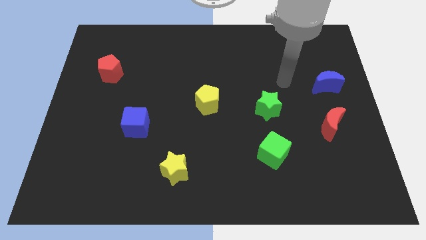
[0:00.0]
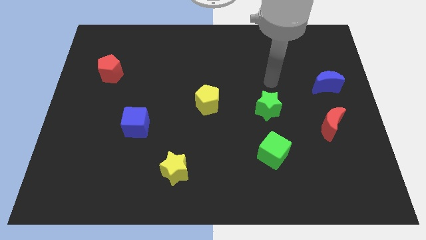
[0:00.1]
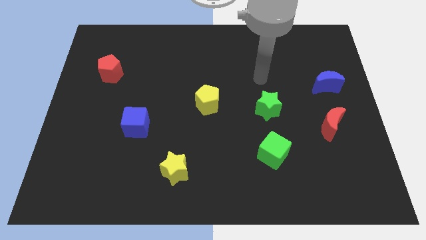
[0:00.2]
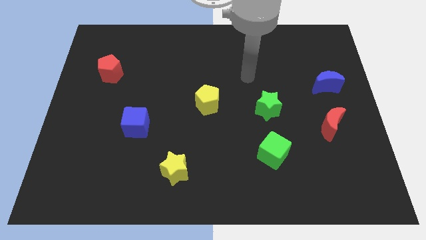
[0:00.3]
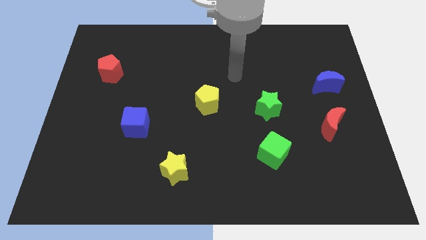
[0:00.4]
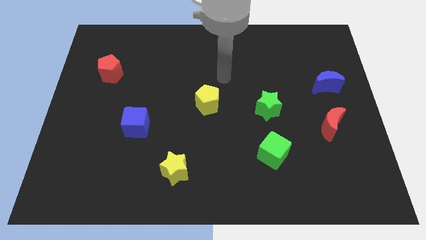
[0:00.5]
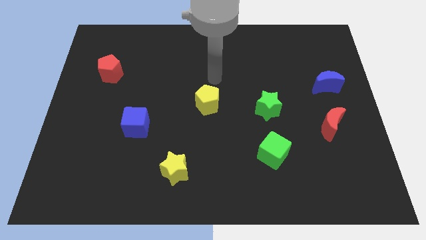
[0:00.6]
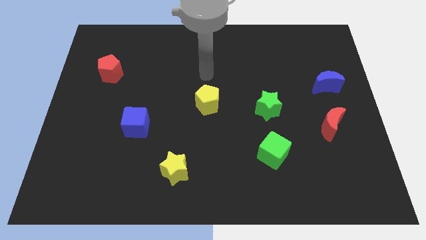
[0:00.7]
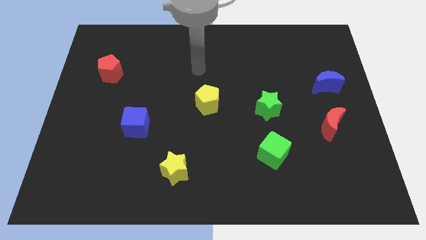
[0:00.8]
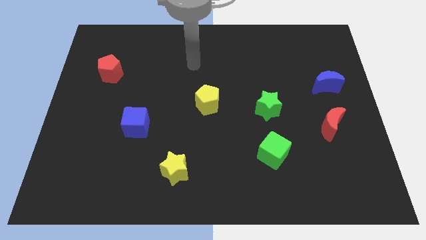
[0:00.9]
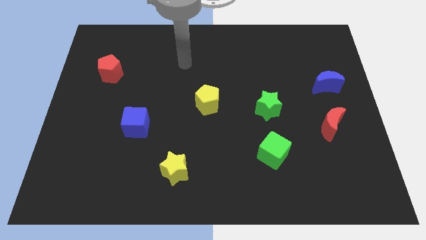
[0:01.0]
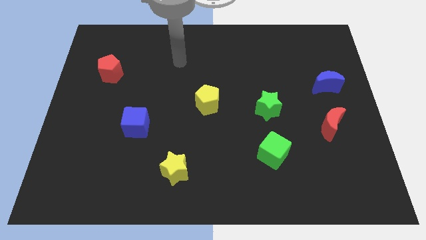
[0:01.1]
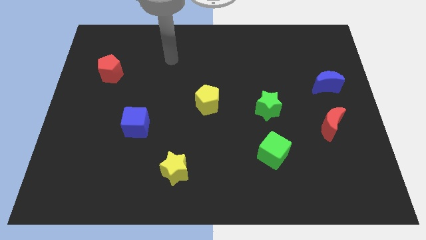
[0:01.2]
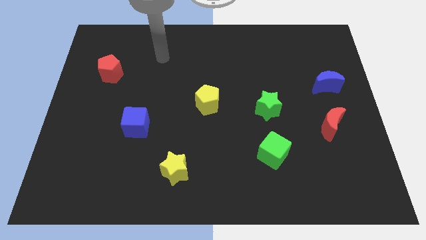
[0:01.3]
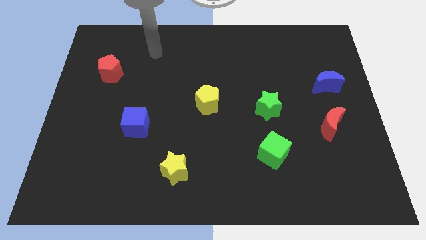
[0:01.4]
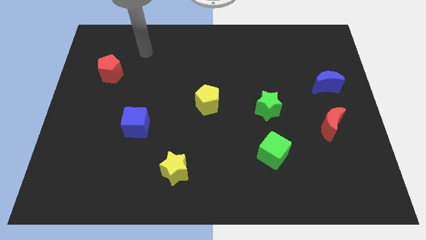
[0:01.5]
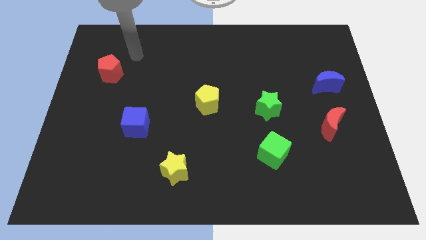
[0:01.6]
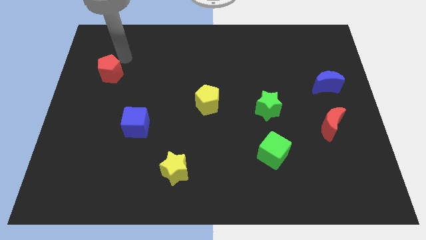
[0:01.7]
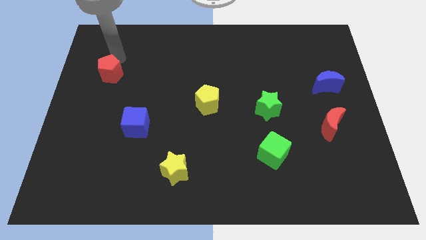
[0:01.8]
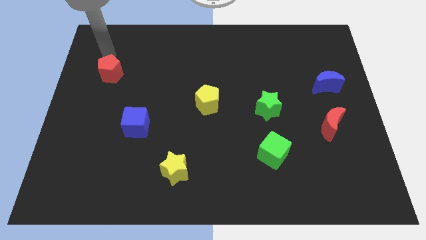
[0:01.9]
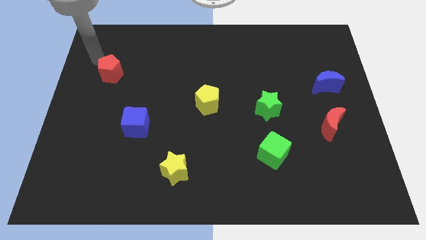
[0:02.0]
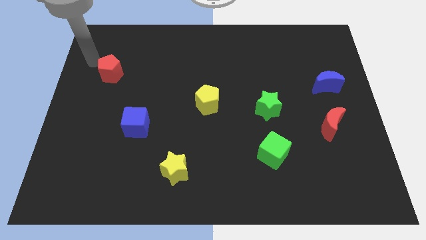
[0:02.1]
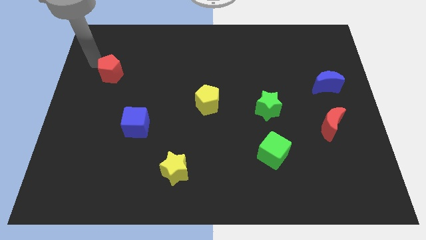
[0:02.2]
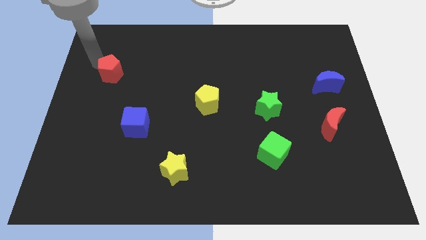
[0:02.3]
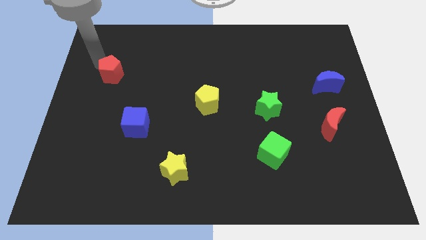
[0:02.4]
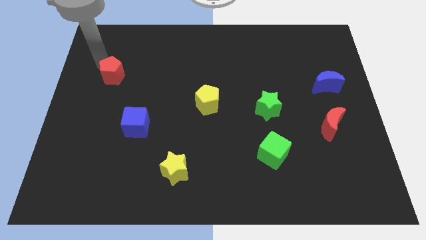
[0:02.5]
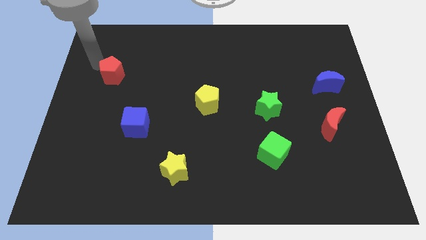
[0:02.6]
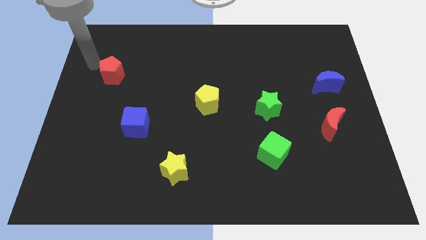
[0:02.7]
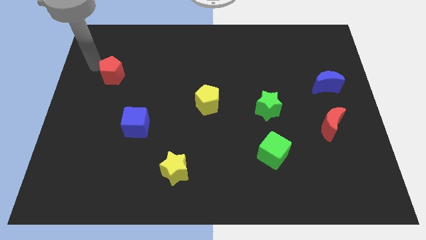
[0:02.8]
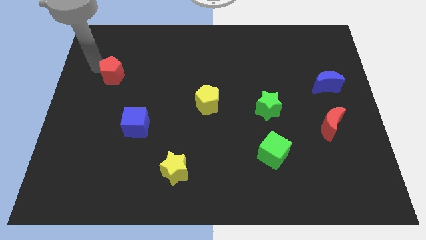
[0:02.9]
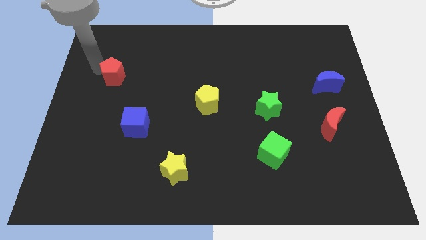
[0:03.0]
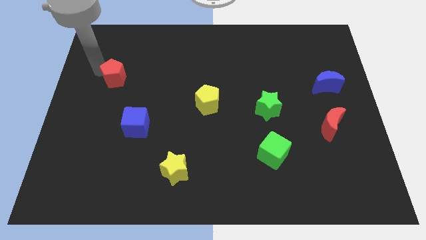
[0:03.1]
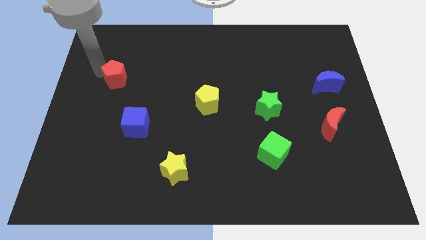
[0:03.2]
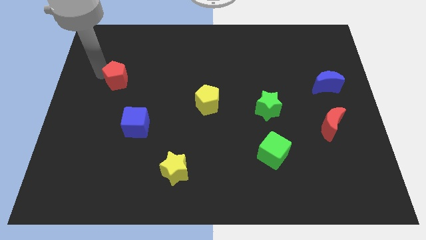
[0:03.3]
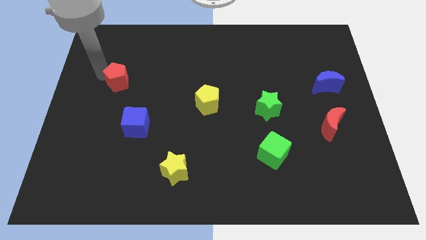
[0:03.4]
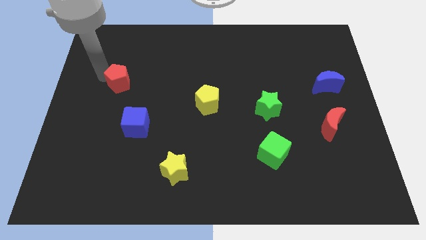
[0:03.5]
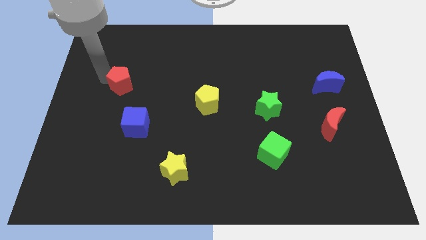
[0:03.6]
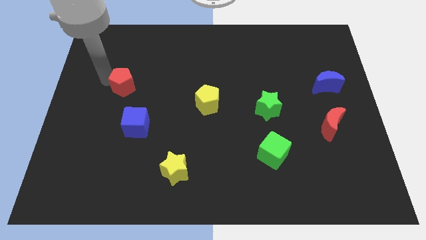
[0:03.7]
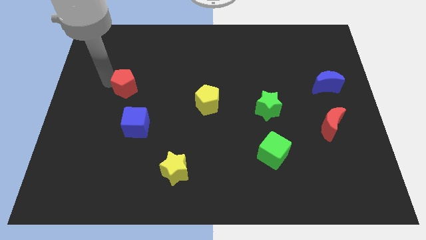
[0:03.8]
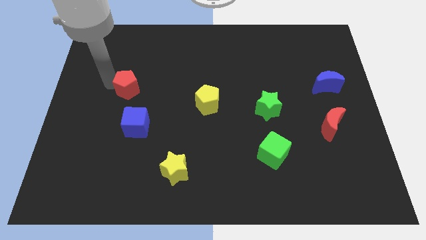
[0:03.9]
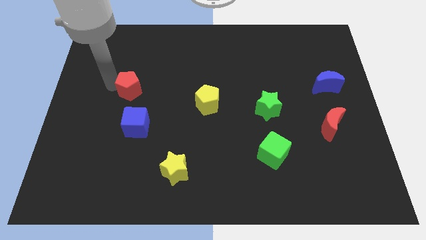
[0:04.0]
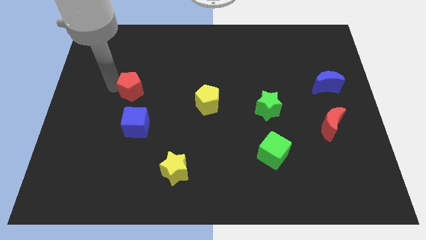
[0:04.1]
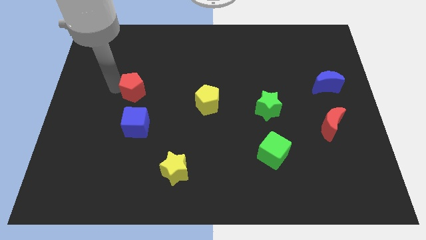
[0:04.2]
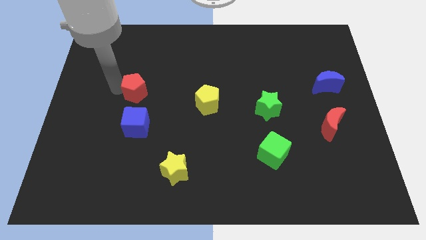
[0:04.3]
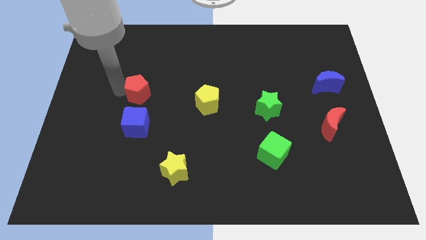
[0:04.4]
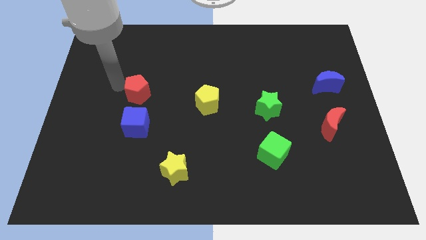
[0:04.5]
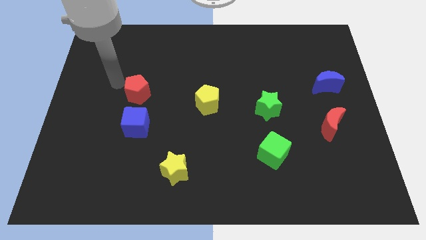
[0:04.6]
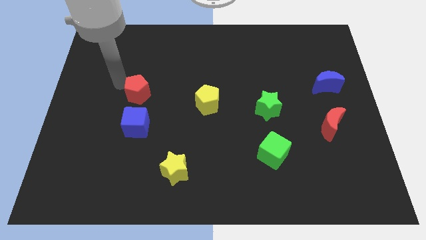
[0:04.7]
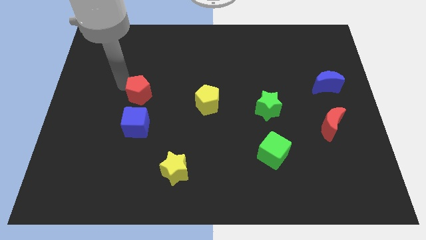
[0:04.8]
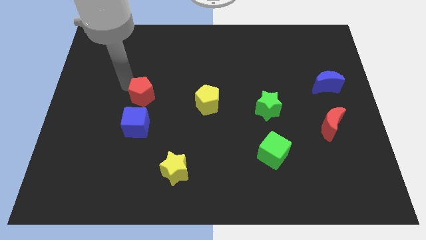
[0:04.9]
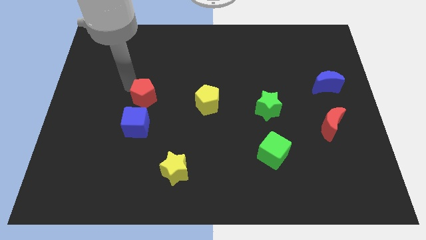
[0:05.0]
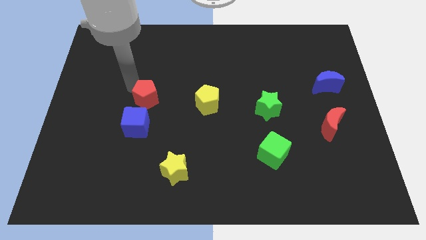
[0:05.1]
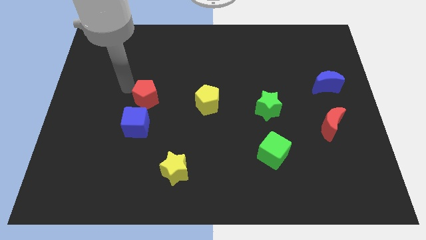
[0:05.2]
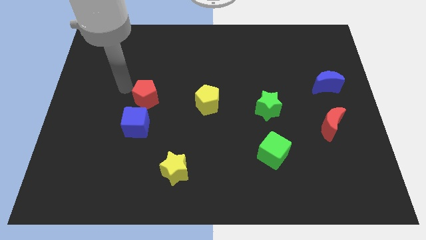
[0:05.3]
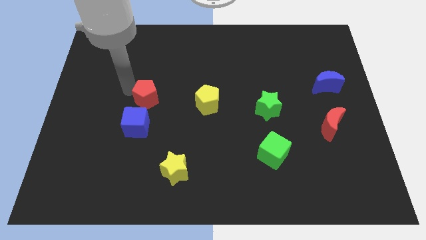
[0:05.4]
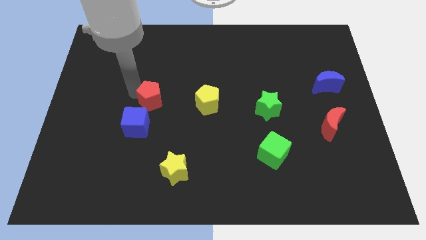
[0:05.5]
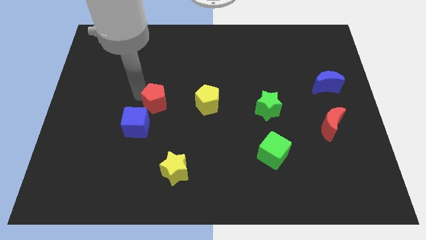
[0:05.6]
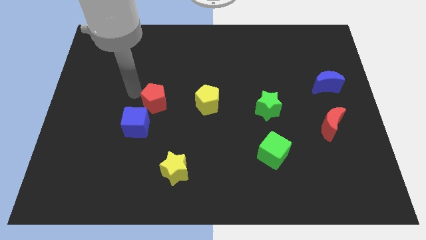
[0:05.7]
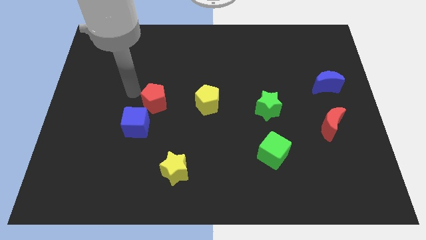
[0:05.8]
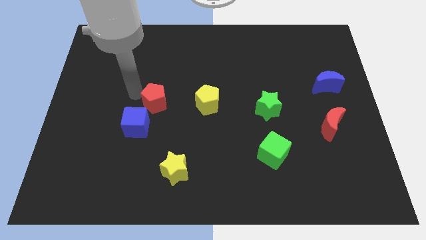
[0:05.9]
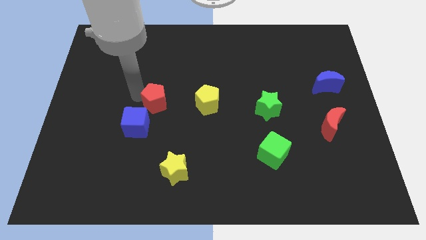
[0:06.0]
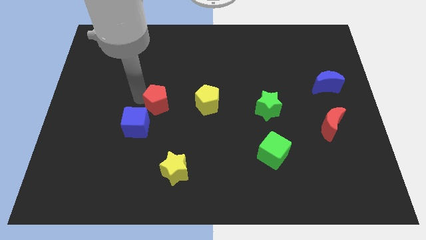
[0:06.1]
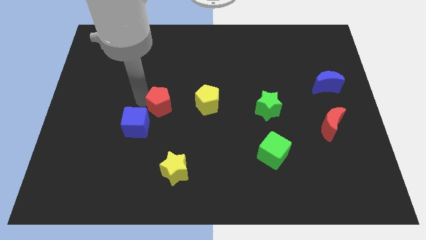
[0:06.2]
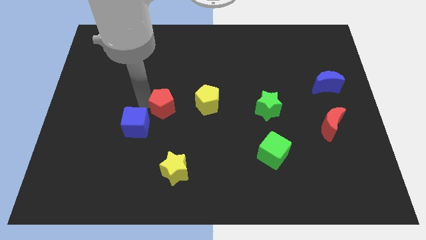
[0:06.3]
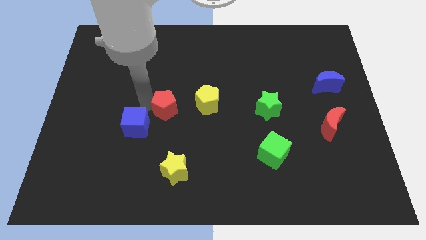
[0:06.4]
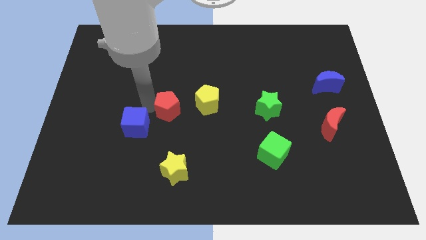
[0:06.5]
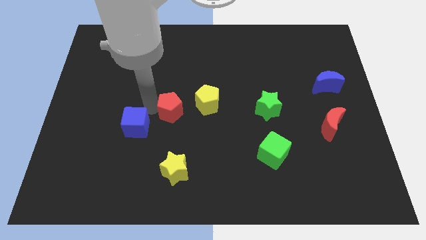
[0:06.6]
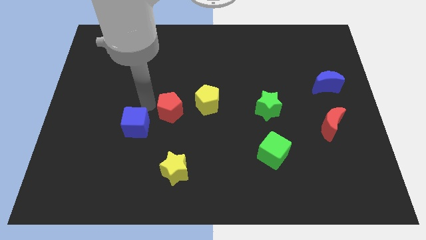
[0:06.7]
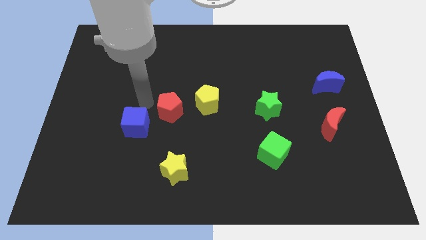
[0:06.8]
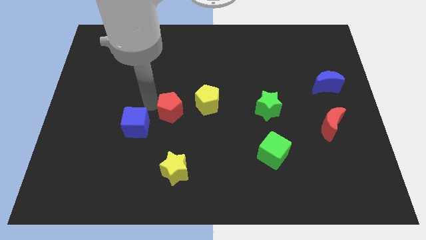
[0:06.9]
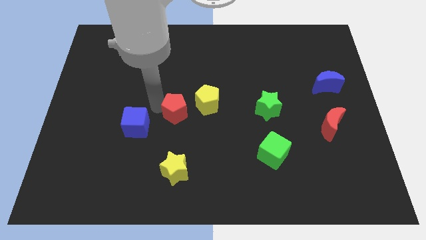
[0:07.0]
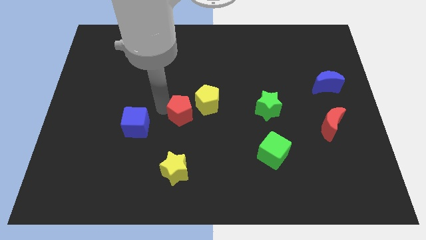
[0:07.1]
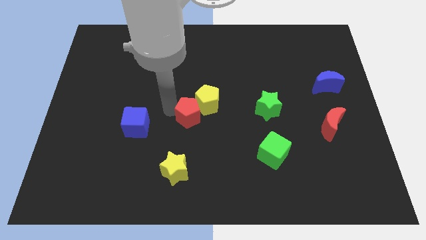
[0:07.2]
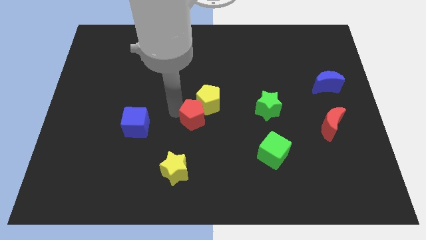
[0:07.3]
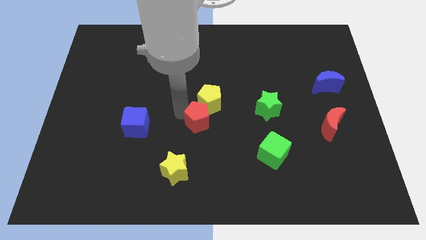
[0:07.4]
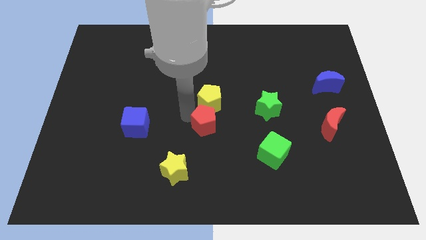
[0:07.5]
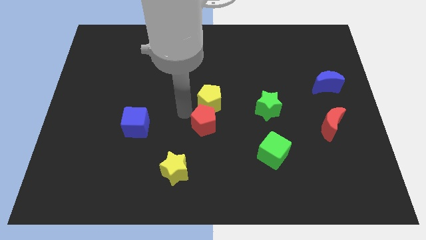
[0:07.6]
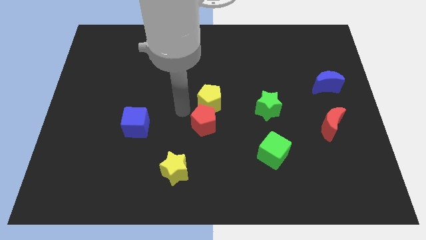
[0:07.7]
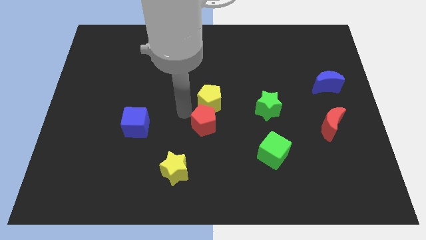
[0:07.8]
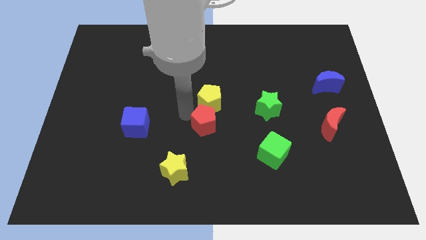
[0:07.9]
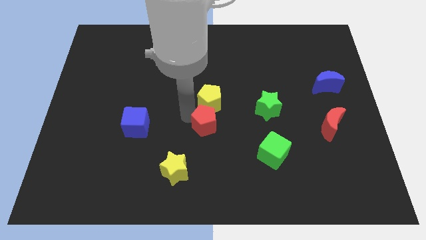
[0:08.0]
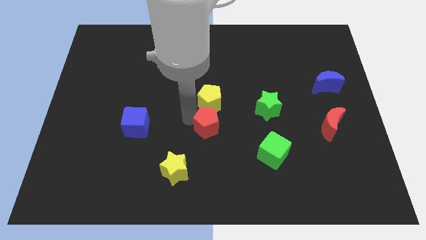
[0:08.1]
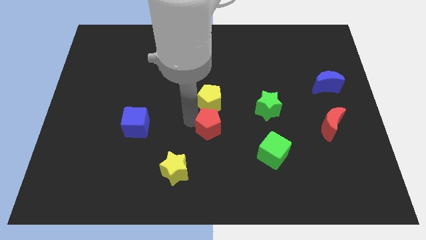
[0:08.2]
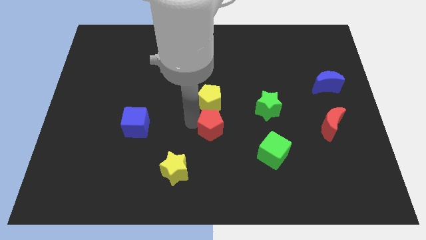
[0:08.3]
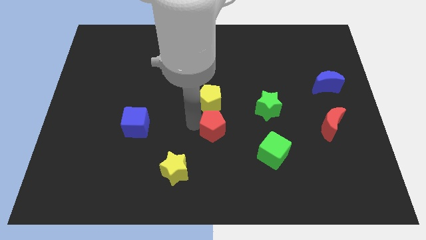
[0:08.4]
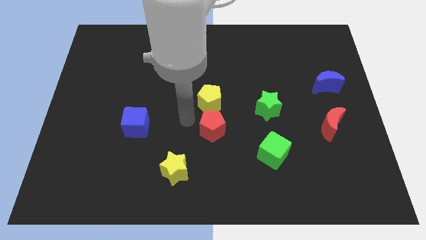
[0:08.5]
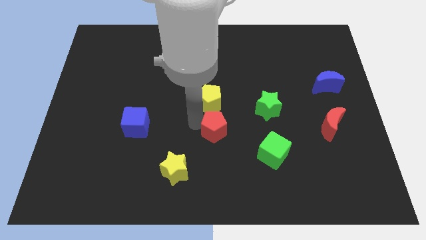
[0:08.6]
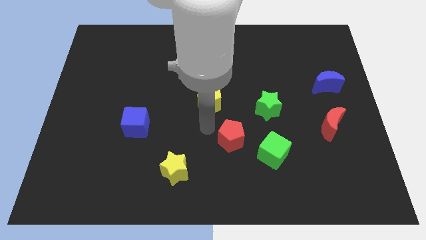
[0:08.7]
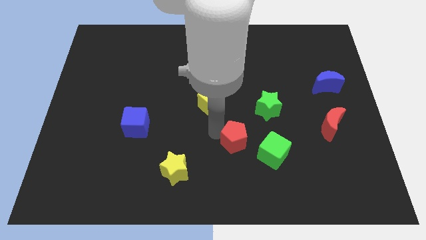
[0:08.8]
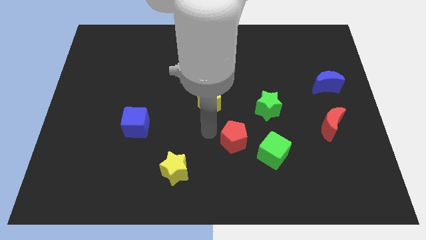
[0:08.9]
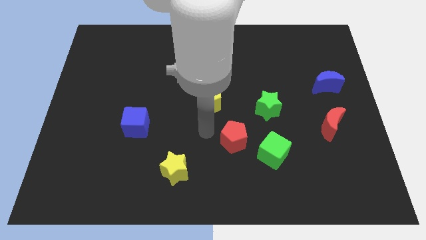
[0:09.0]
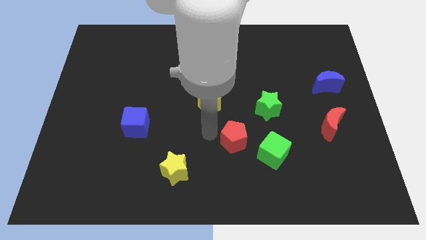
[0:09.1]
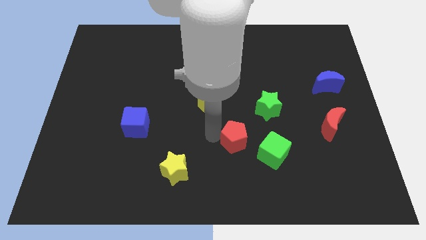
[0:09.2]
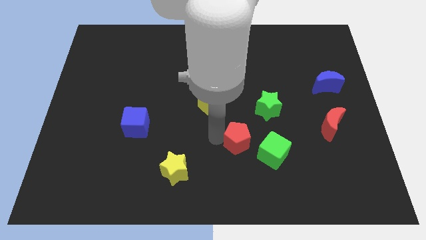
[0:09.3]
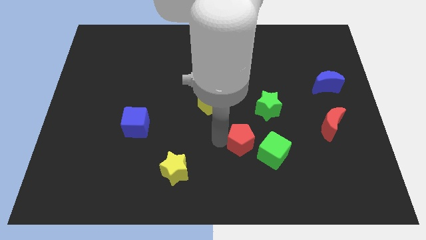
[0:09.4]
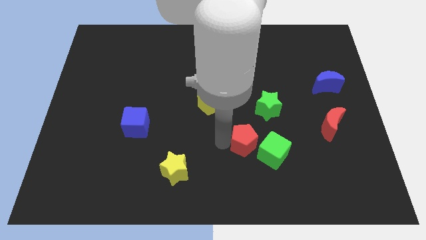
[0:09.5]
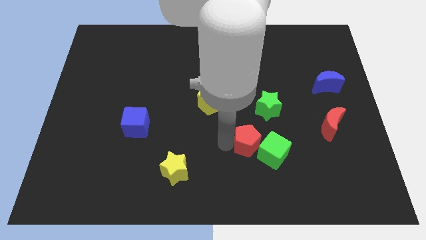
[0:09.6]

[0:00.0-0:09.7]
push the red pentagon next to the green cube
